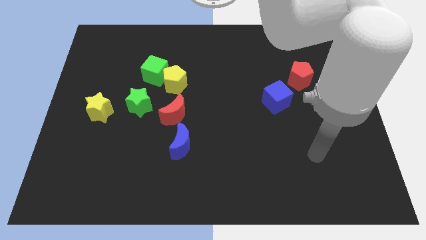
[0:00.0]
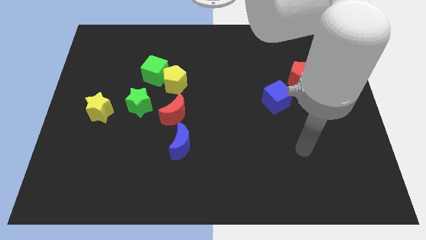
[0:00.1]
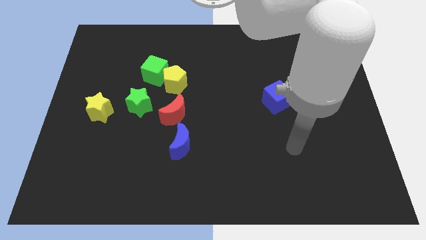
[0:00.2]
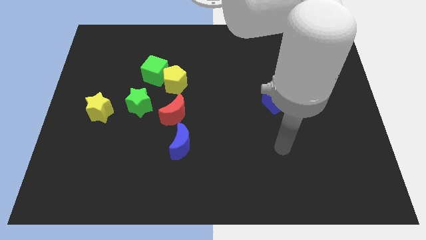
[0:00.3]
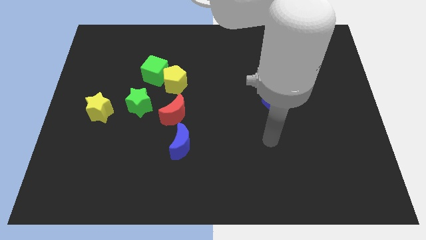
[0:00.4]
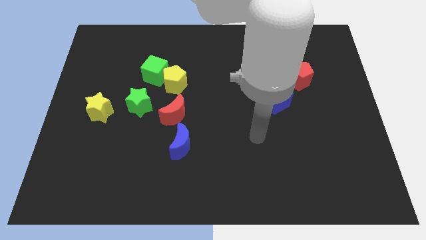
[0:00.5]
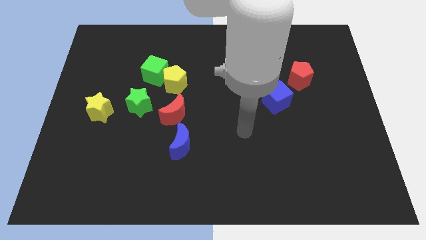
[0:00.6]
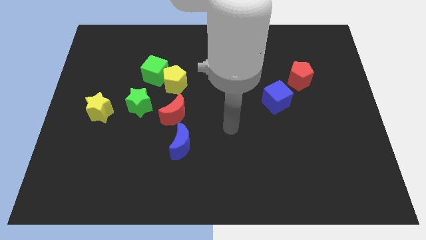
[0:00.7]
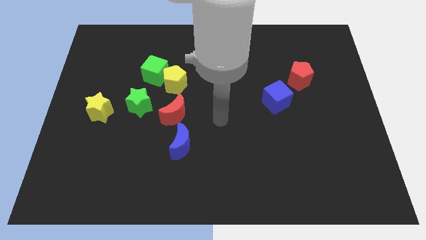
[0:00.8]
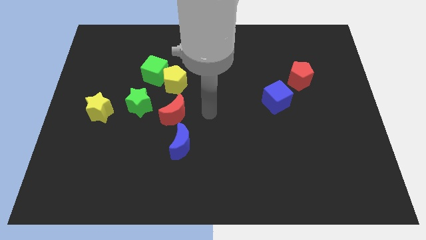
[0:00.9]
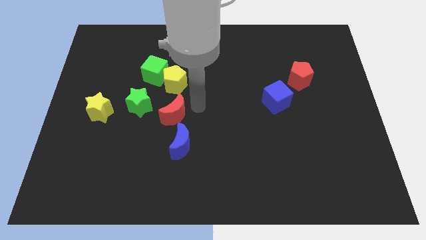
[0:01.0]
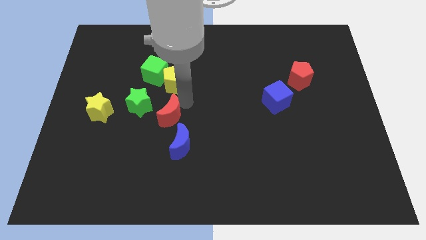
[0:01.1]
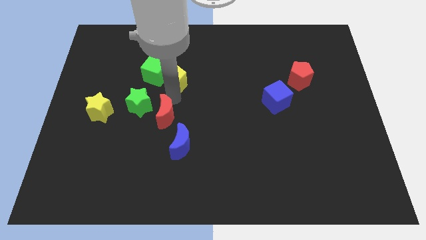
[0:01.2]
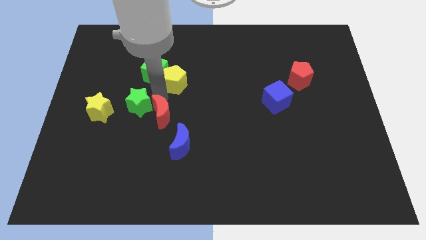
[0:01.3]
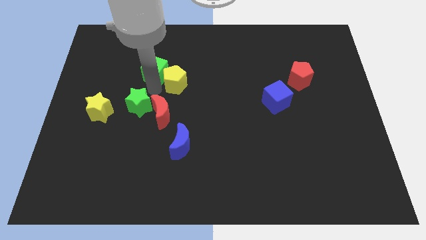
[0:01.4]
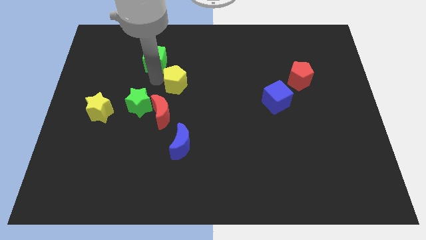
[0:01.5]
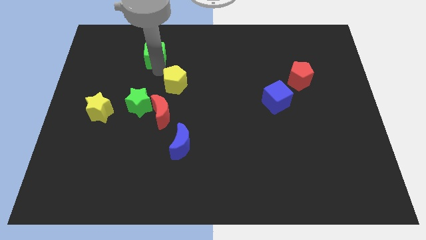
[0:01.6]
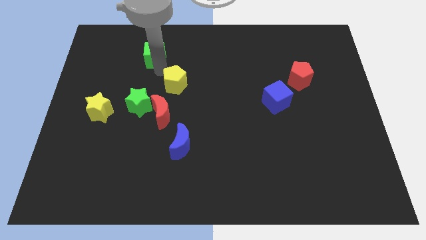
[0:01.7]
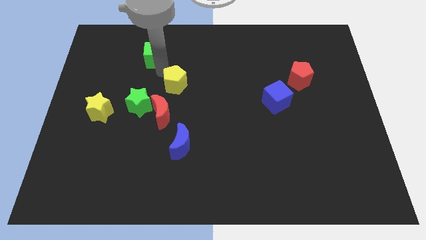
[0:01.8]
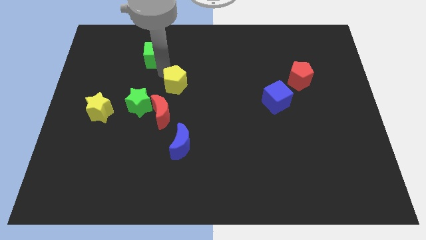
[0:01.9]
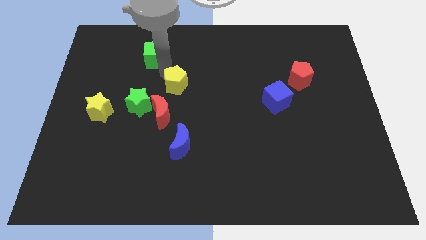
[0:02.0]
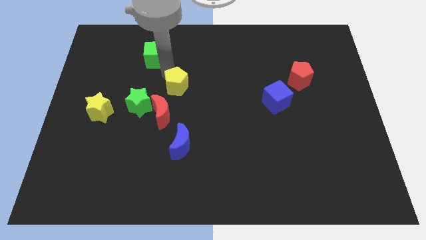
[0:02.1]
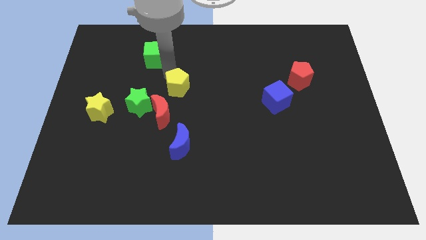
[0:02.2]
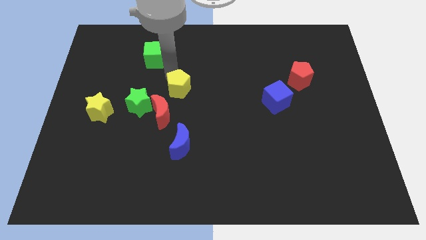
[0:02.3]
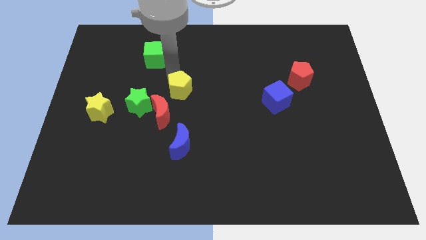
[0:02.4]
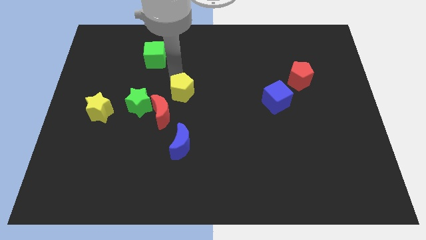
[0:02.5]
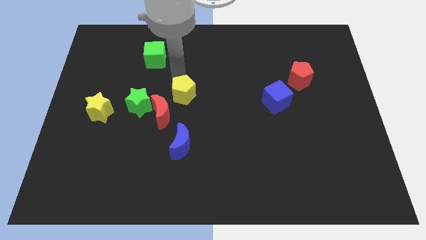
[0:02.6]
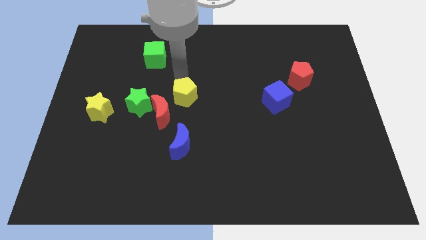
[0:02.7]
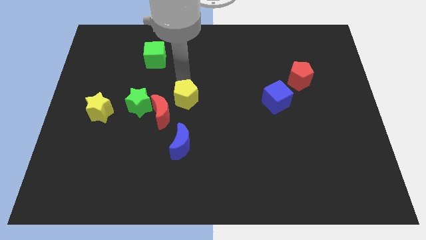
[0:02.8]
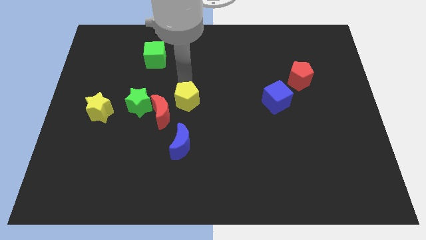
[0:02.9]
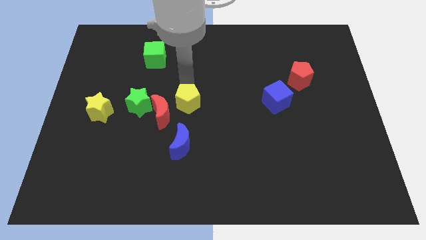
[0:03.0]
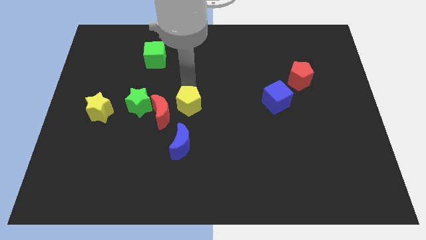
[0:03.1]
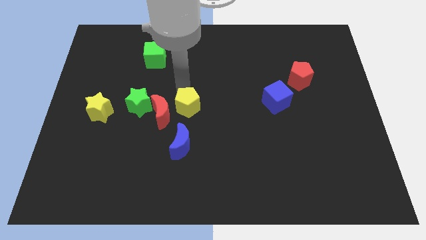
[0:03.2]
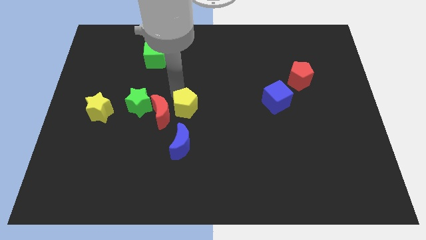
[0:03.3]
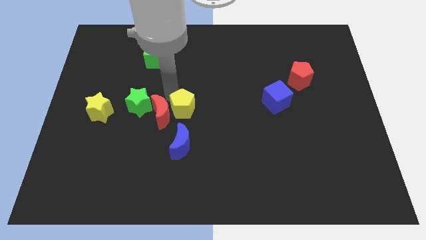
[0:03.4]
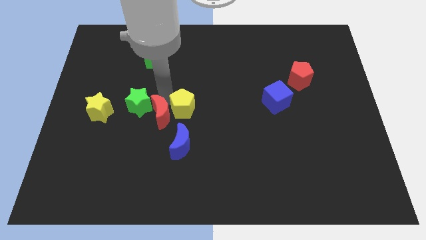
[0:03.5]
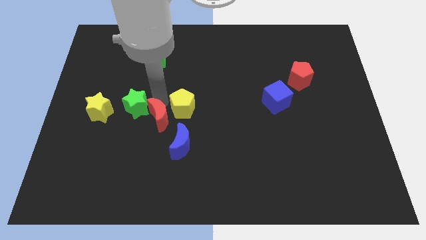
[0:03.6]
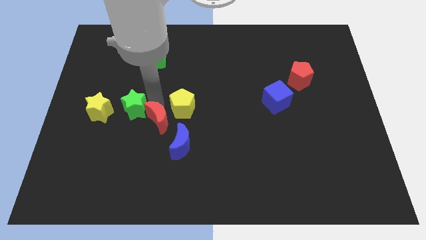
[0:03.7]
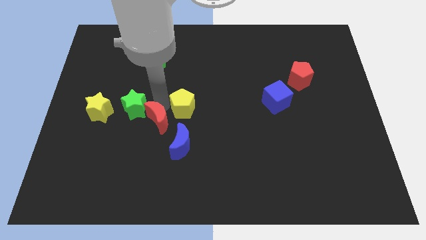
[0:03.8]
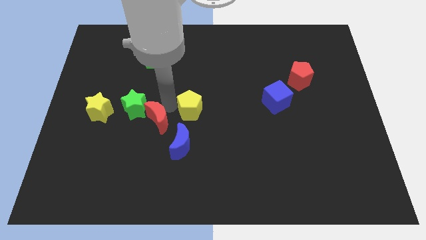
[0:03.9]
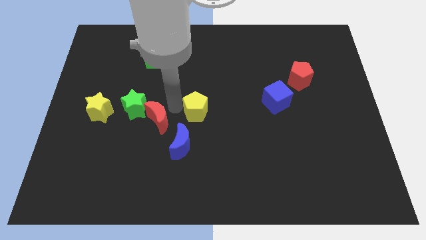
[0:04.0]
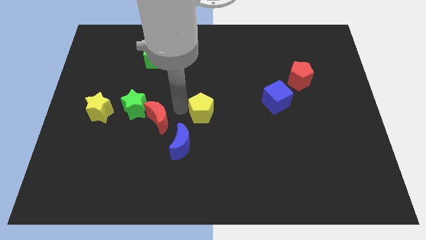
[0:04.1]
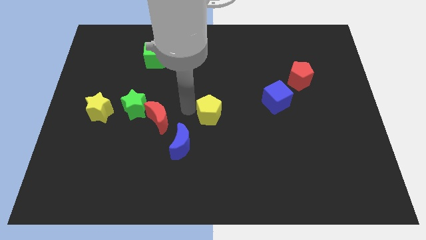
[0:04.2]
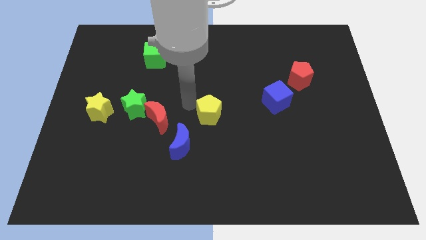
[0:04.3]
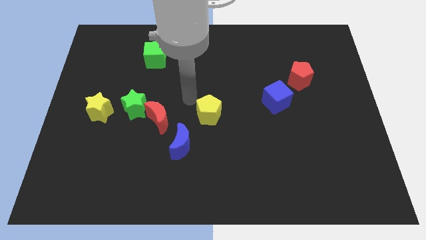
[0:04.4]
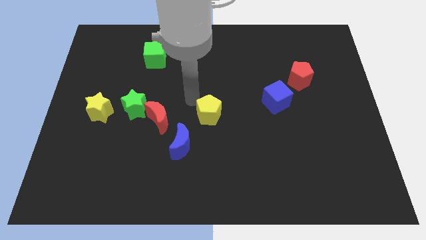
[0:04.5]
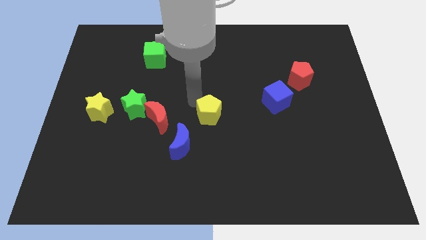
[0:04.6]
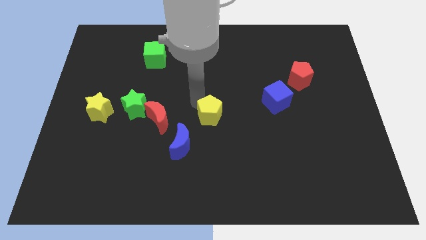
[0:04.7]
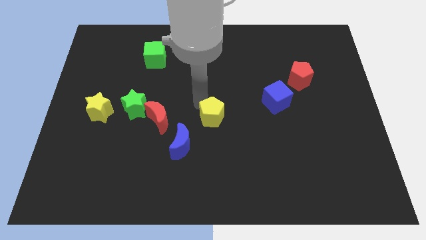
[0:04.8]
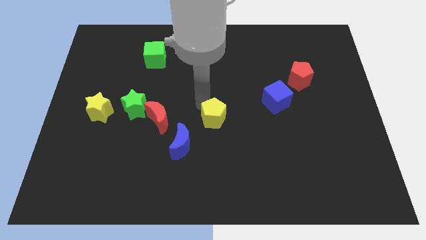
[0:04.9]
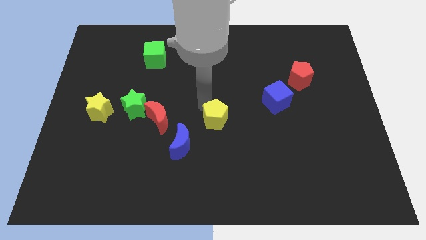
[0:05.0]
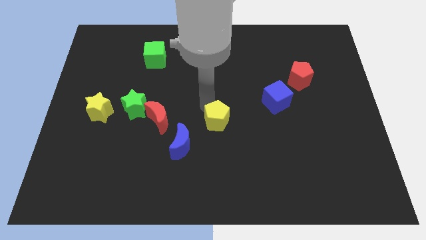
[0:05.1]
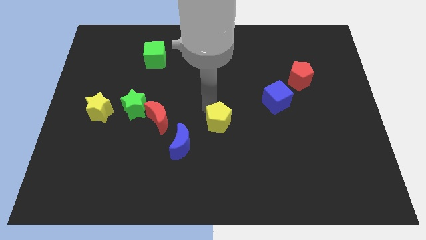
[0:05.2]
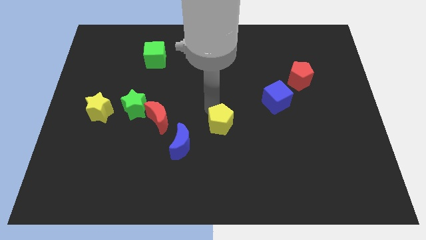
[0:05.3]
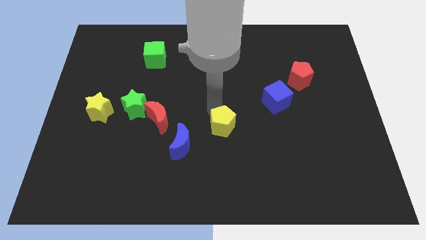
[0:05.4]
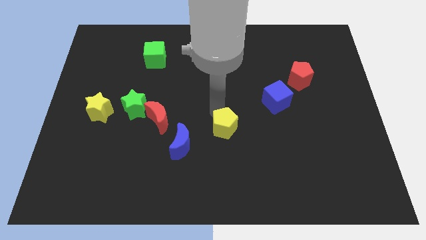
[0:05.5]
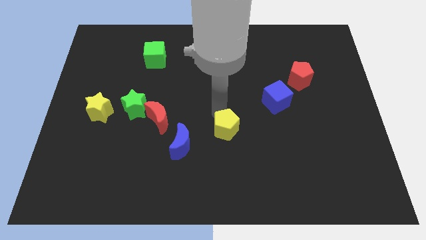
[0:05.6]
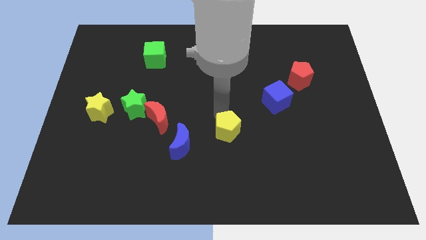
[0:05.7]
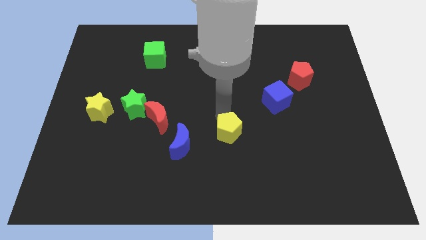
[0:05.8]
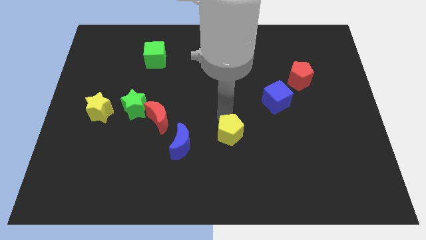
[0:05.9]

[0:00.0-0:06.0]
push the yellow pentagon diagonally down and to the right

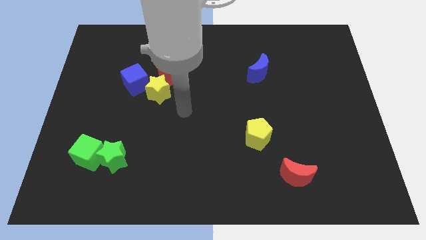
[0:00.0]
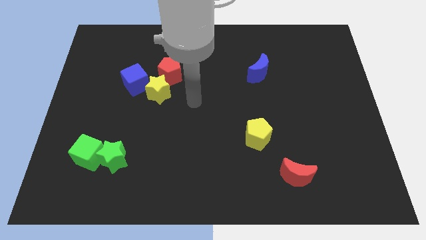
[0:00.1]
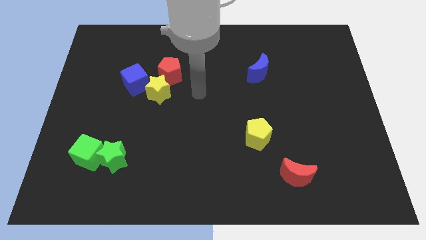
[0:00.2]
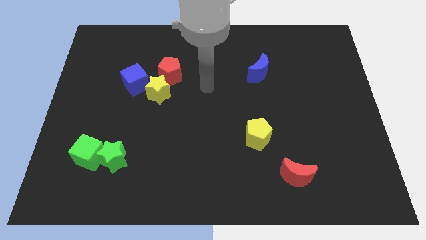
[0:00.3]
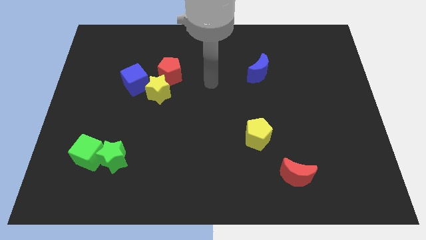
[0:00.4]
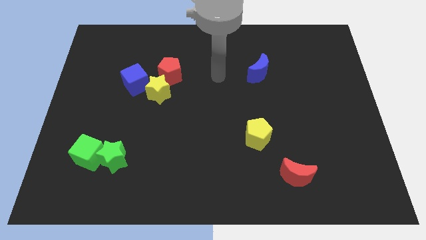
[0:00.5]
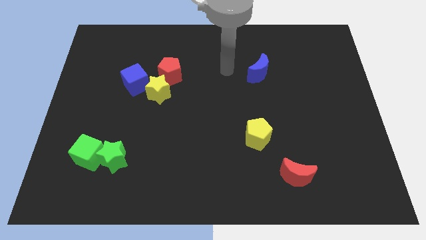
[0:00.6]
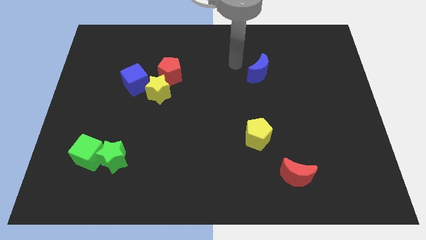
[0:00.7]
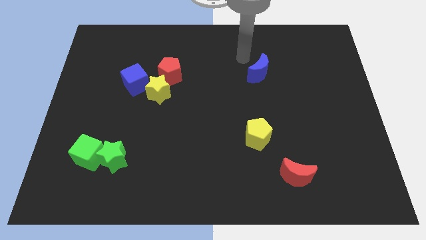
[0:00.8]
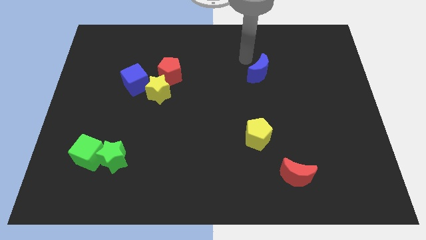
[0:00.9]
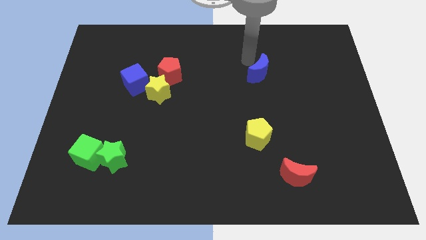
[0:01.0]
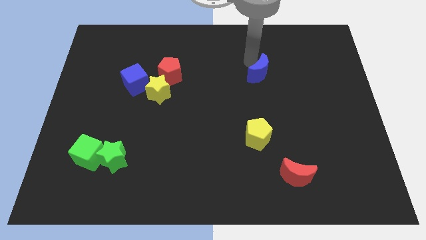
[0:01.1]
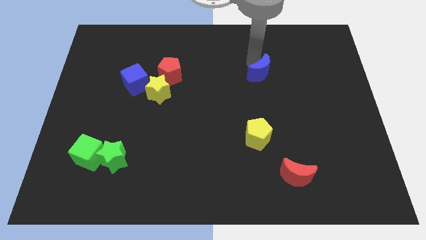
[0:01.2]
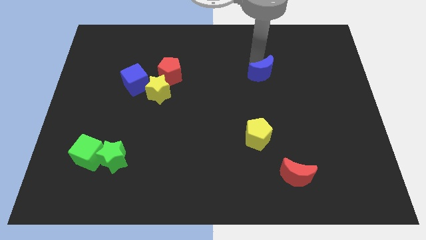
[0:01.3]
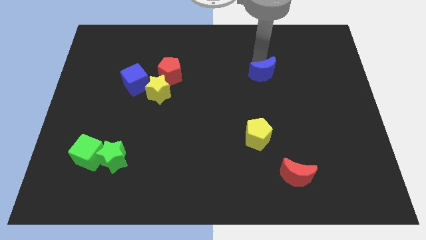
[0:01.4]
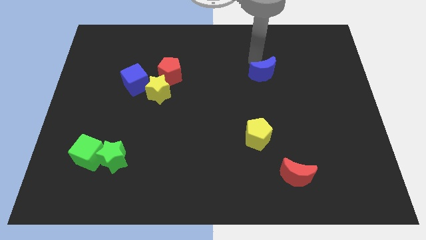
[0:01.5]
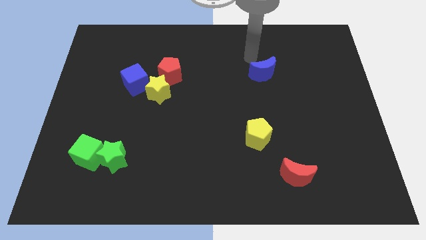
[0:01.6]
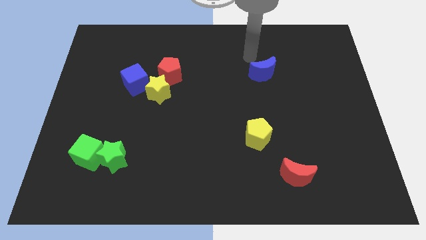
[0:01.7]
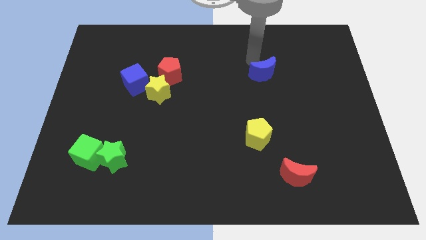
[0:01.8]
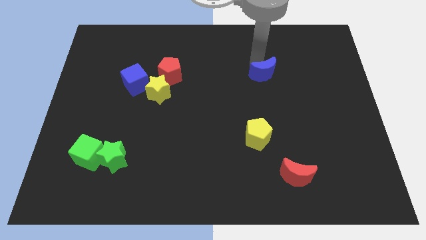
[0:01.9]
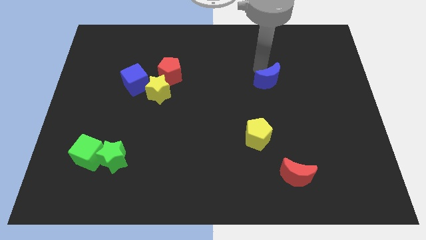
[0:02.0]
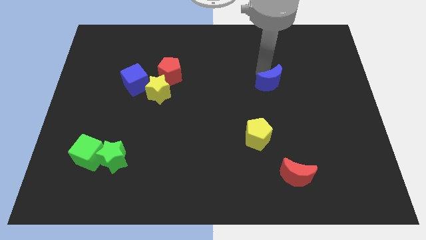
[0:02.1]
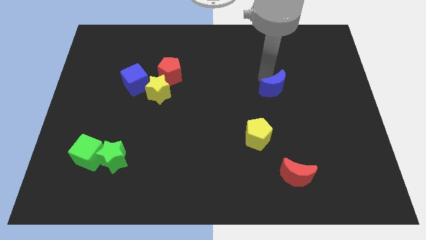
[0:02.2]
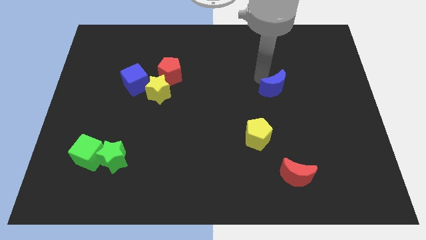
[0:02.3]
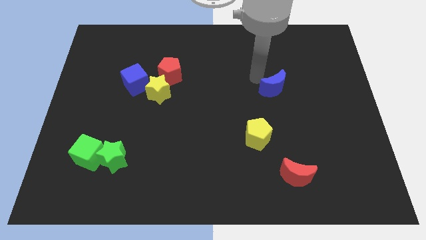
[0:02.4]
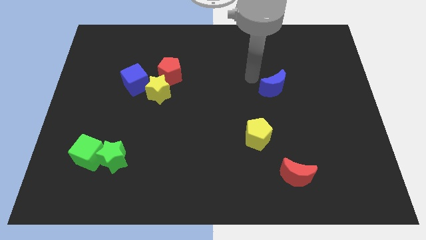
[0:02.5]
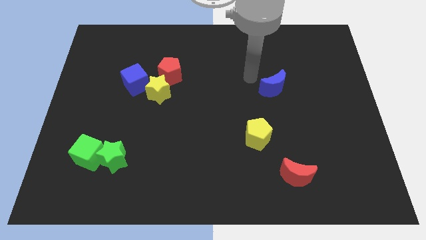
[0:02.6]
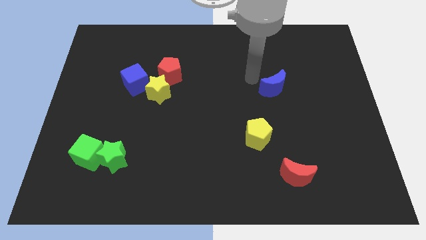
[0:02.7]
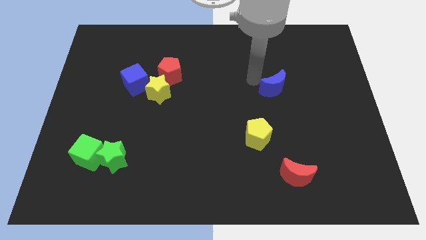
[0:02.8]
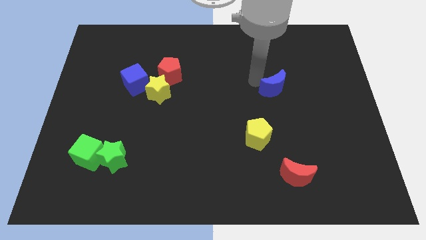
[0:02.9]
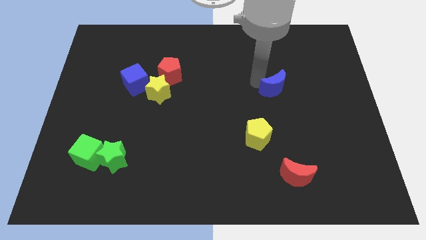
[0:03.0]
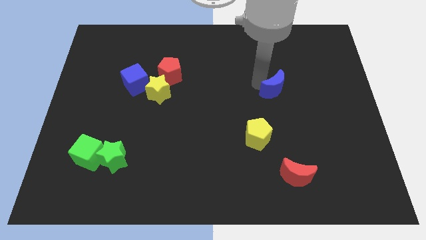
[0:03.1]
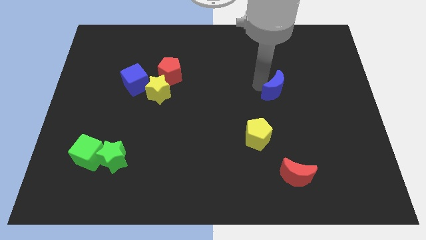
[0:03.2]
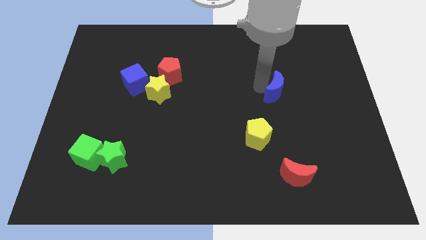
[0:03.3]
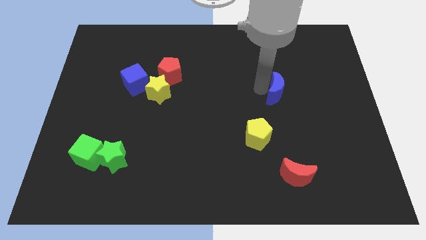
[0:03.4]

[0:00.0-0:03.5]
slightly move the blue moon diagonally down and right
